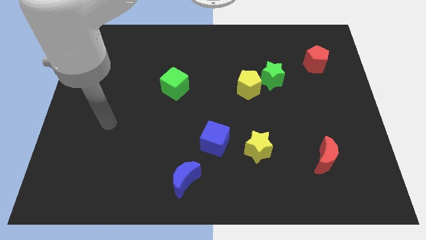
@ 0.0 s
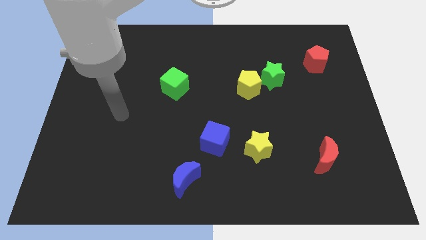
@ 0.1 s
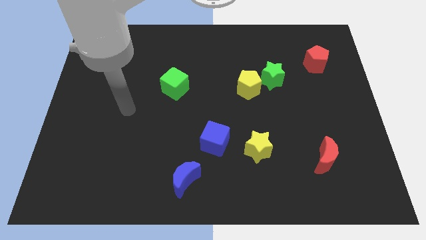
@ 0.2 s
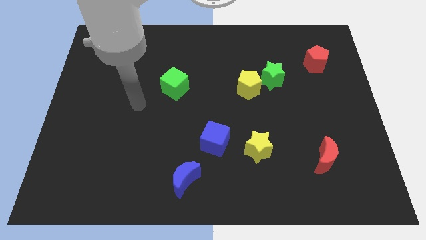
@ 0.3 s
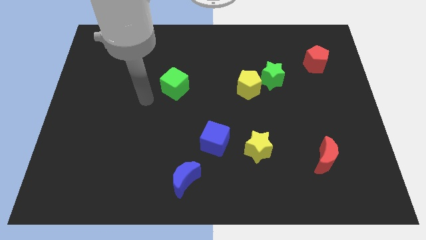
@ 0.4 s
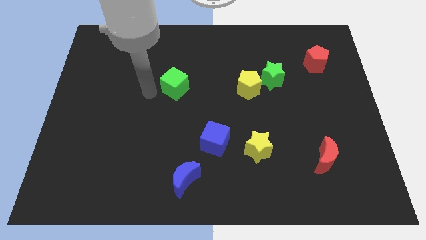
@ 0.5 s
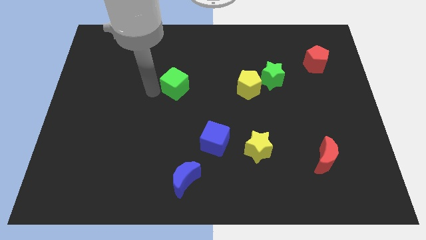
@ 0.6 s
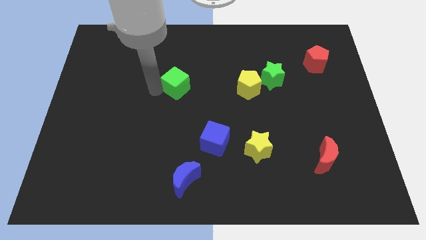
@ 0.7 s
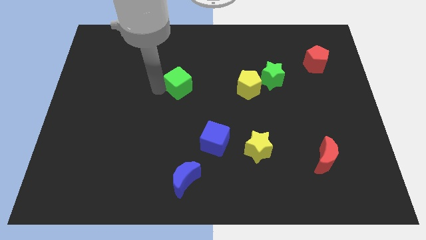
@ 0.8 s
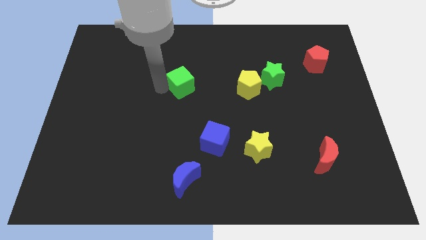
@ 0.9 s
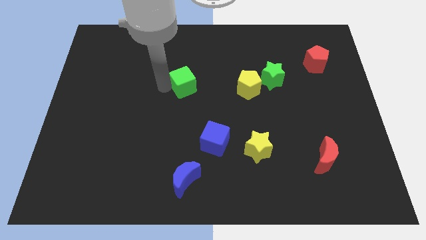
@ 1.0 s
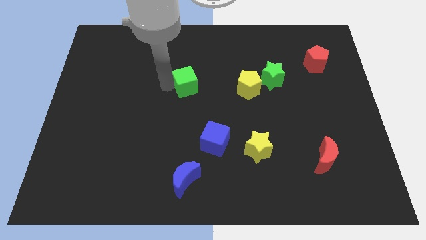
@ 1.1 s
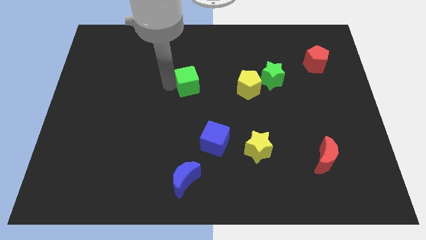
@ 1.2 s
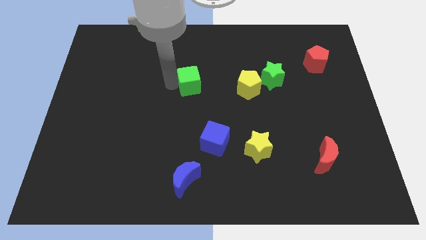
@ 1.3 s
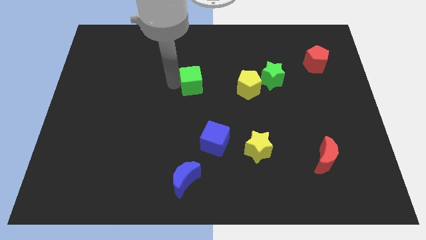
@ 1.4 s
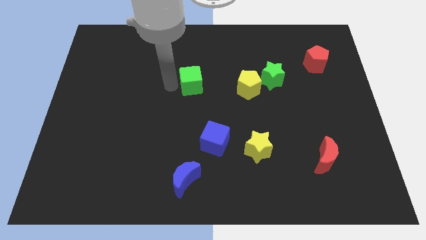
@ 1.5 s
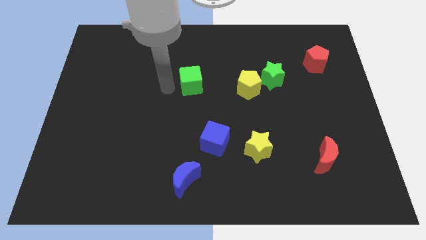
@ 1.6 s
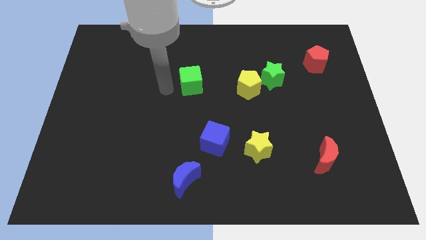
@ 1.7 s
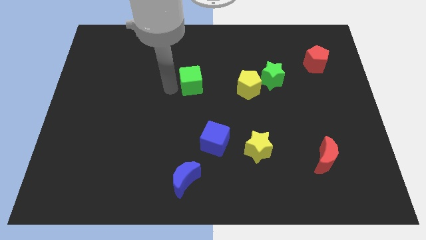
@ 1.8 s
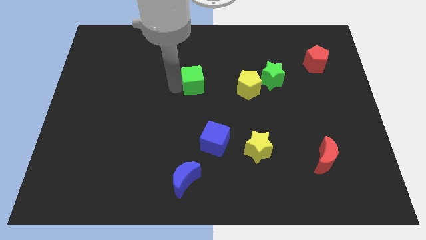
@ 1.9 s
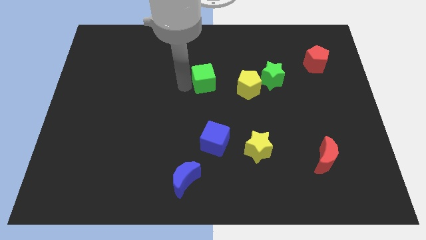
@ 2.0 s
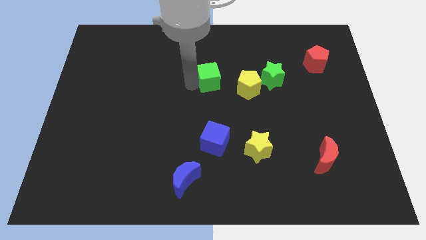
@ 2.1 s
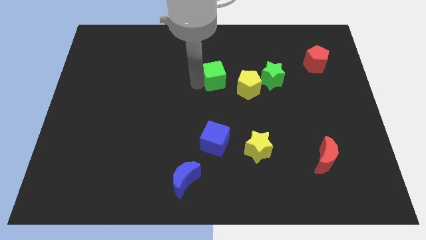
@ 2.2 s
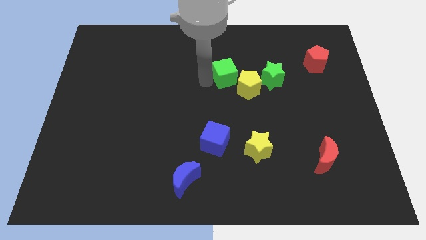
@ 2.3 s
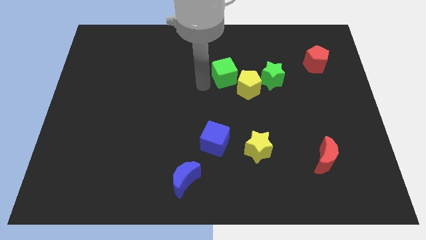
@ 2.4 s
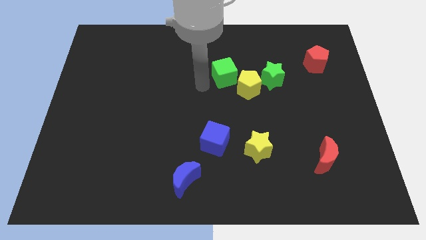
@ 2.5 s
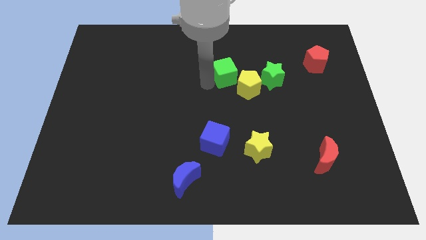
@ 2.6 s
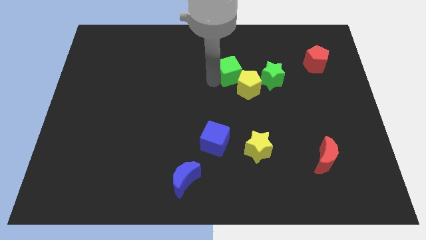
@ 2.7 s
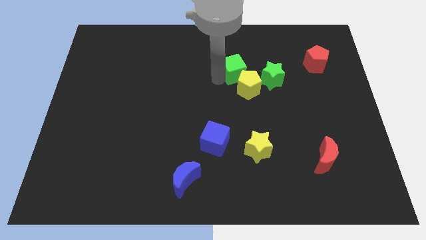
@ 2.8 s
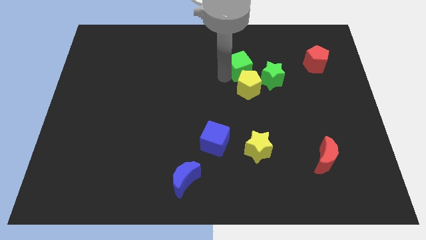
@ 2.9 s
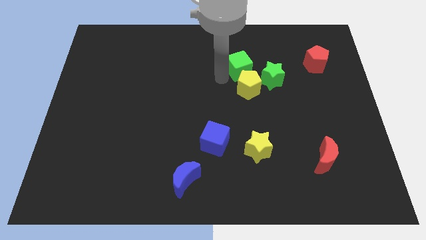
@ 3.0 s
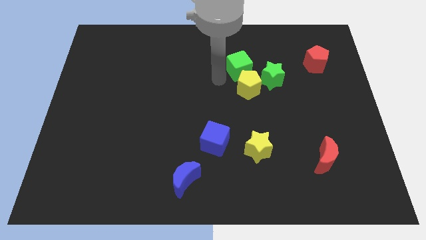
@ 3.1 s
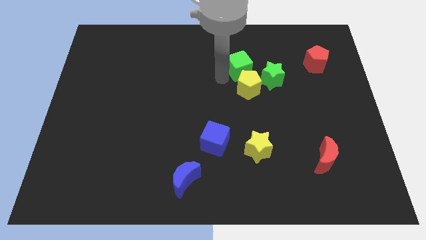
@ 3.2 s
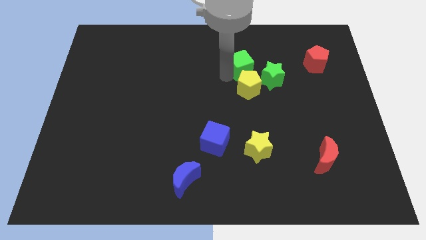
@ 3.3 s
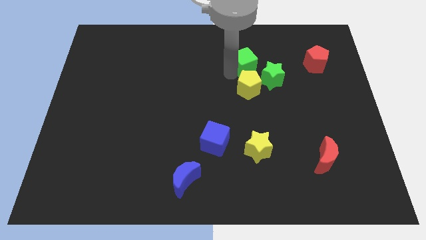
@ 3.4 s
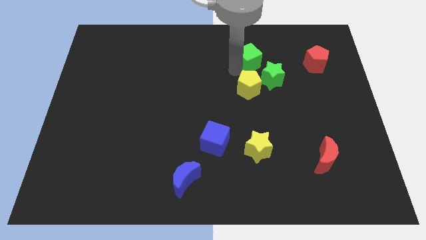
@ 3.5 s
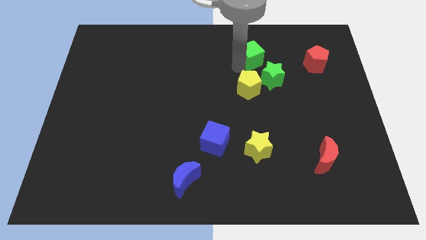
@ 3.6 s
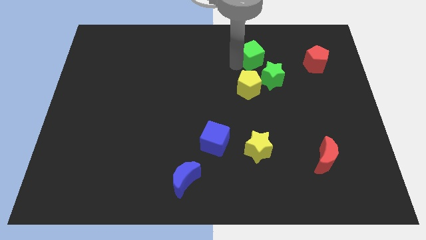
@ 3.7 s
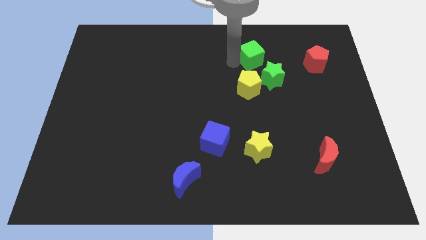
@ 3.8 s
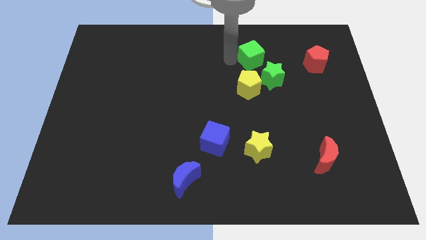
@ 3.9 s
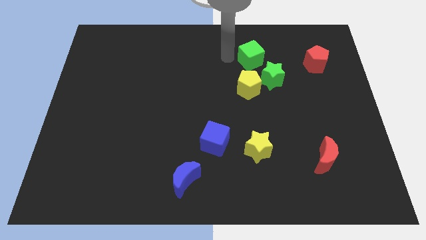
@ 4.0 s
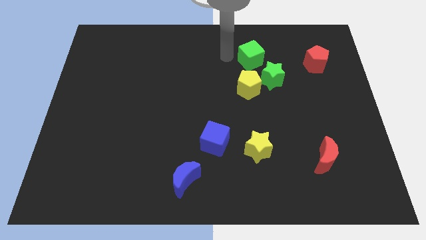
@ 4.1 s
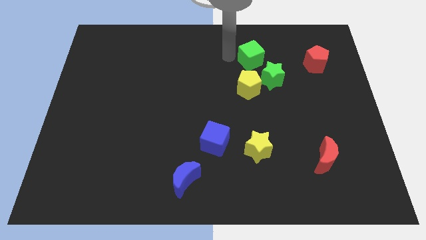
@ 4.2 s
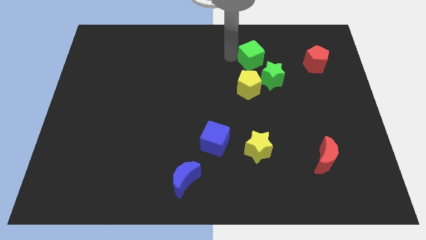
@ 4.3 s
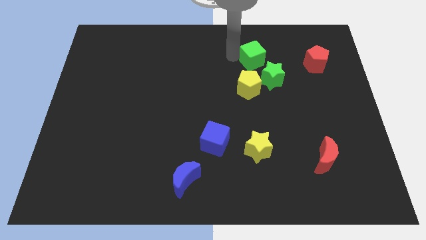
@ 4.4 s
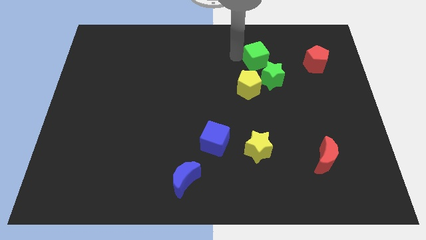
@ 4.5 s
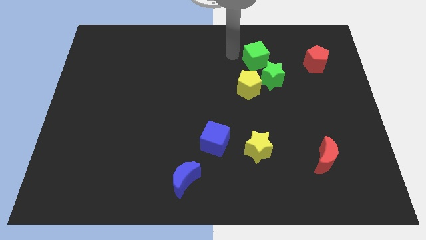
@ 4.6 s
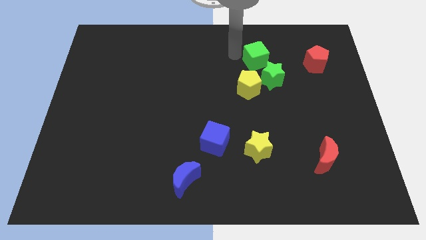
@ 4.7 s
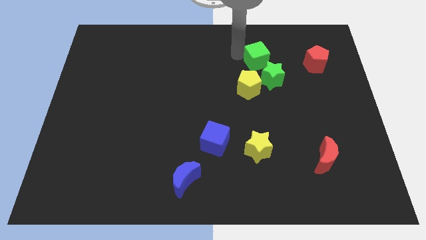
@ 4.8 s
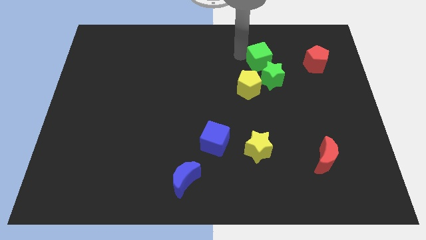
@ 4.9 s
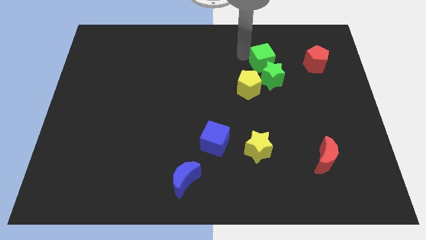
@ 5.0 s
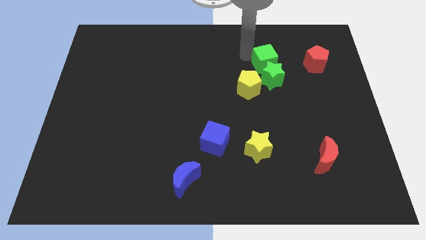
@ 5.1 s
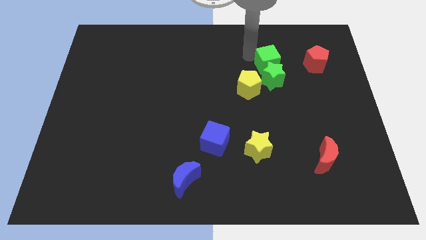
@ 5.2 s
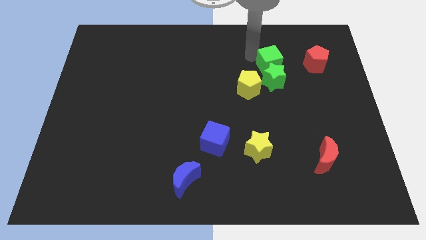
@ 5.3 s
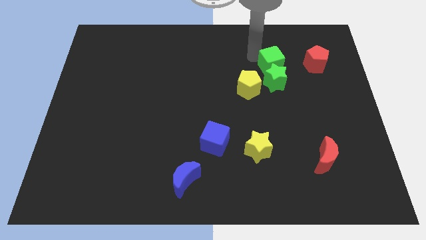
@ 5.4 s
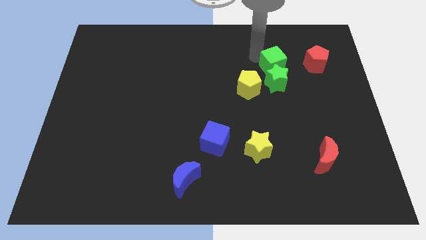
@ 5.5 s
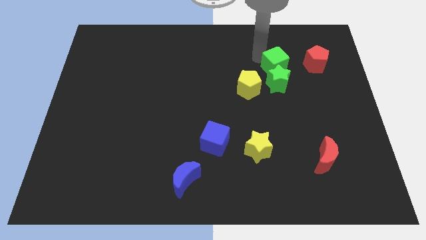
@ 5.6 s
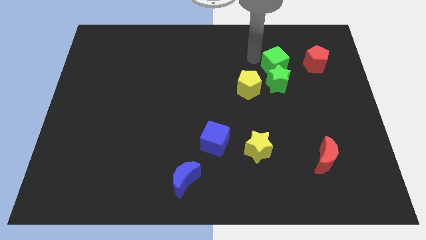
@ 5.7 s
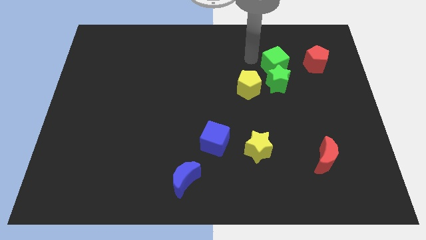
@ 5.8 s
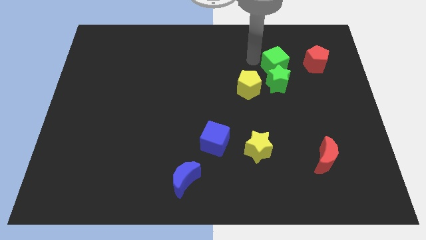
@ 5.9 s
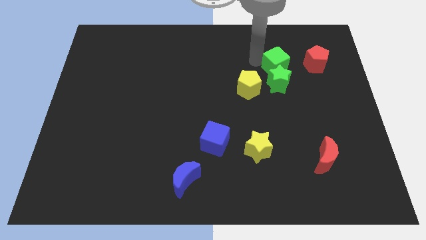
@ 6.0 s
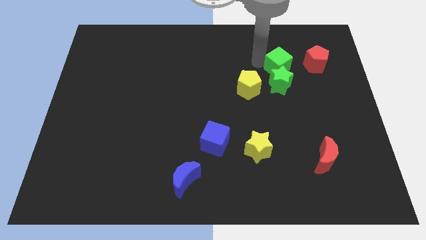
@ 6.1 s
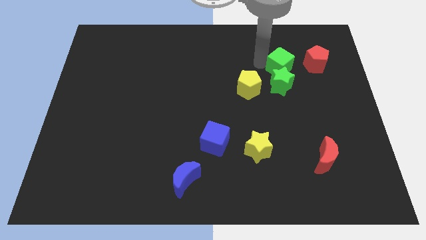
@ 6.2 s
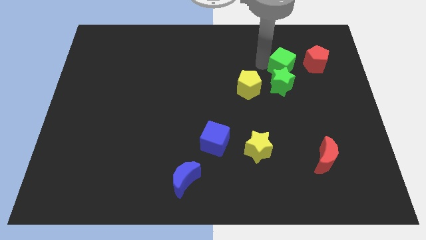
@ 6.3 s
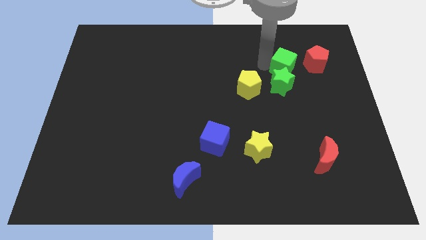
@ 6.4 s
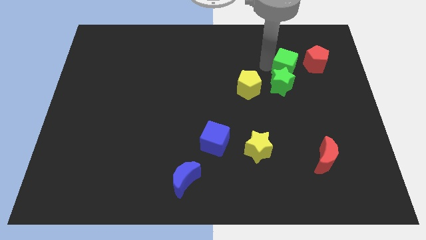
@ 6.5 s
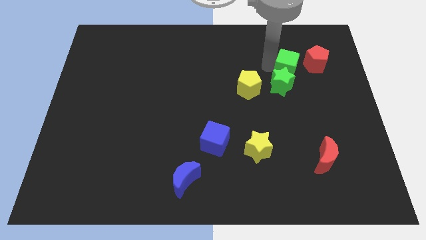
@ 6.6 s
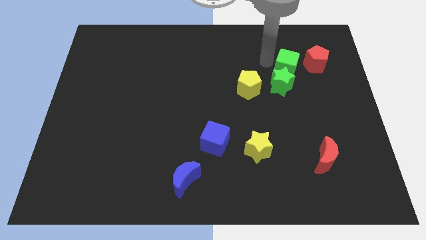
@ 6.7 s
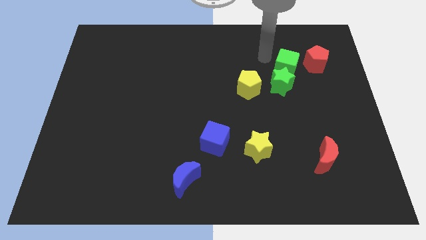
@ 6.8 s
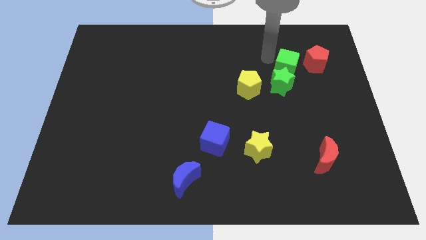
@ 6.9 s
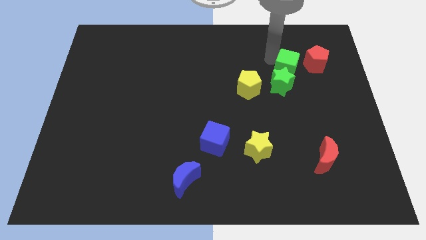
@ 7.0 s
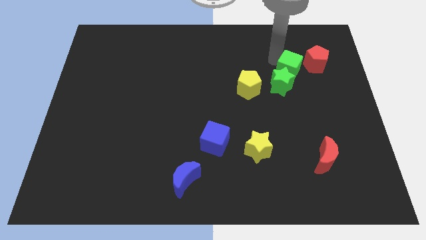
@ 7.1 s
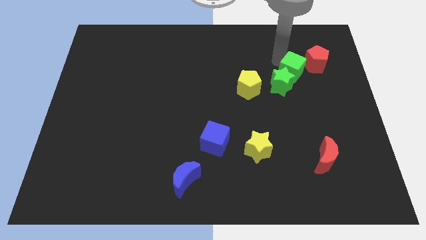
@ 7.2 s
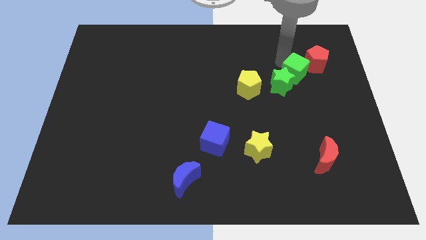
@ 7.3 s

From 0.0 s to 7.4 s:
move the green cube right of the green star

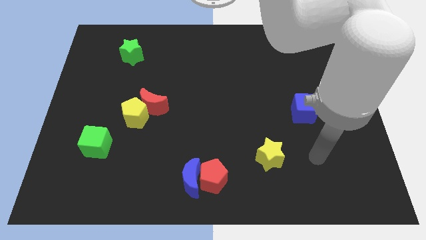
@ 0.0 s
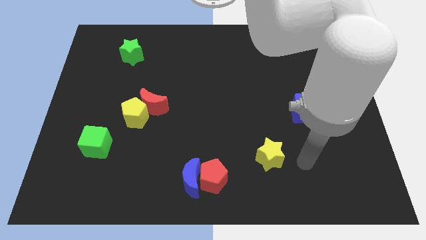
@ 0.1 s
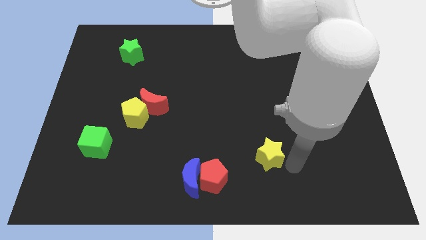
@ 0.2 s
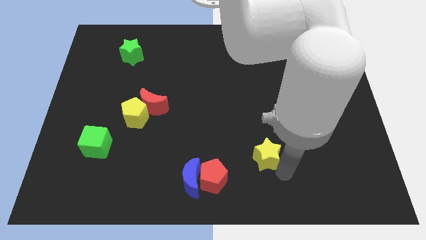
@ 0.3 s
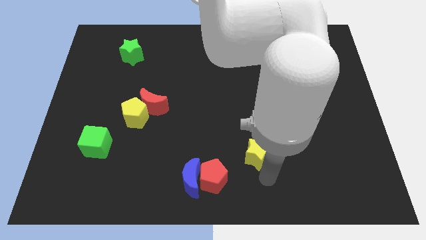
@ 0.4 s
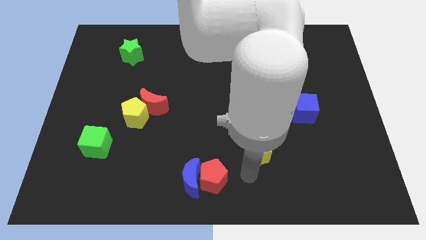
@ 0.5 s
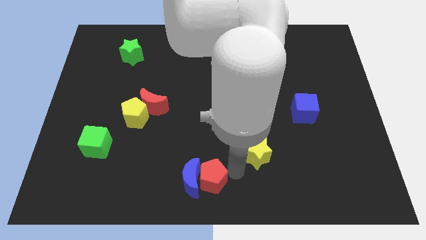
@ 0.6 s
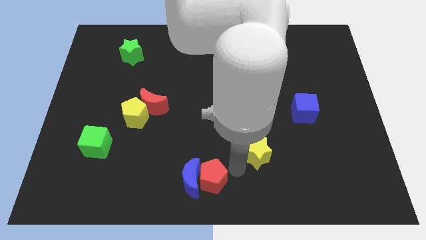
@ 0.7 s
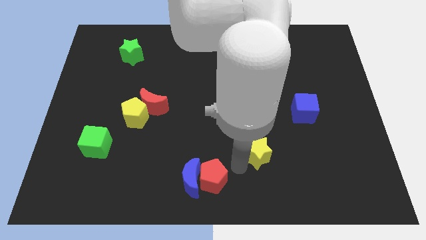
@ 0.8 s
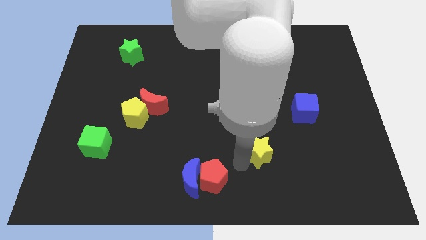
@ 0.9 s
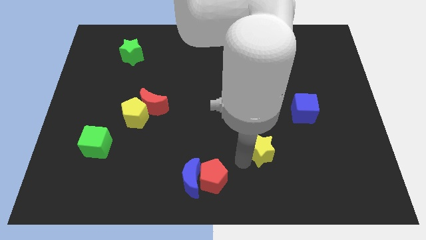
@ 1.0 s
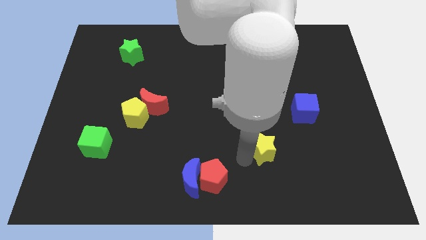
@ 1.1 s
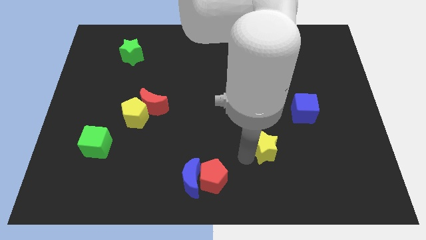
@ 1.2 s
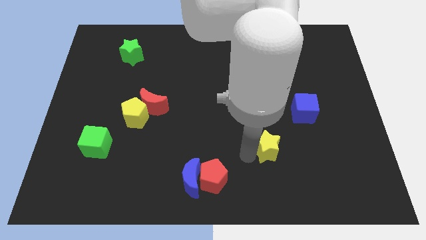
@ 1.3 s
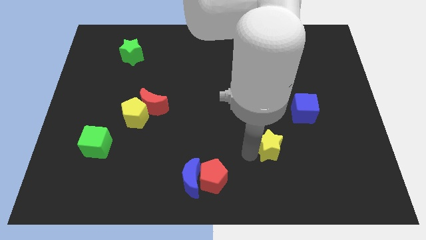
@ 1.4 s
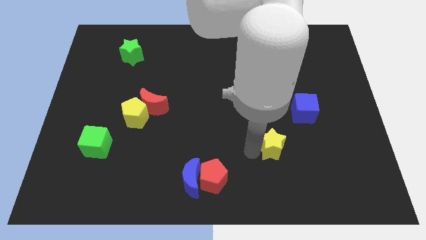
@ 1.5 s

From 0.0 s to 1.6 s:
put the yellow star to the bottom left side of the blue cube
